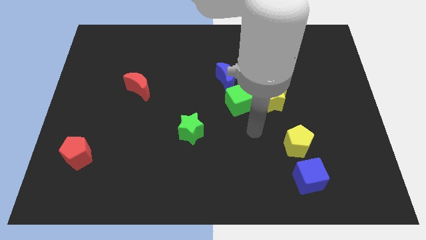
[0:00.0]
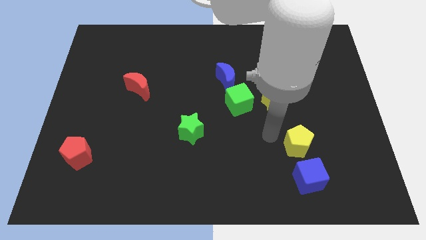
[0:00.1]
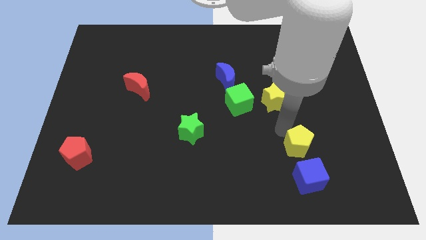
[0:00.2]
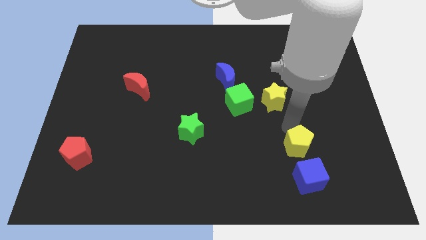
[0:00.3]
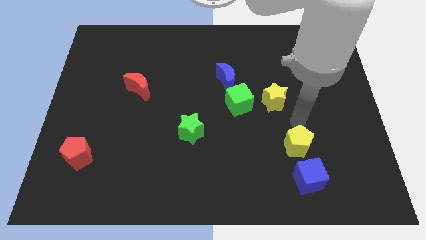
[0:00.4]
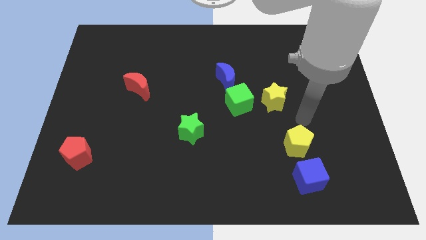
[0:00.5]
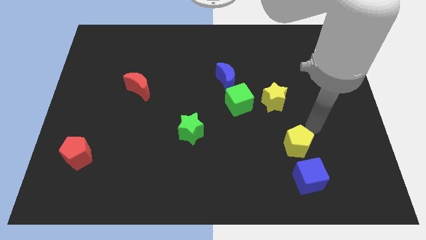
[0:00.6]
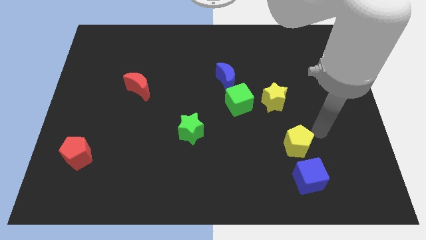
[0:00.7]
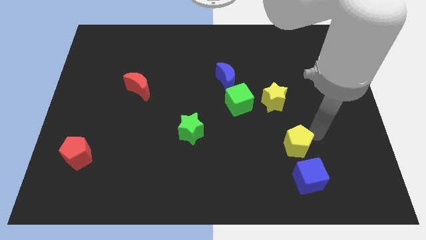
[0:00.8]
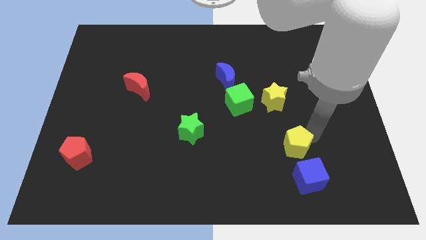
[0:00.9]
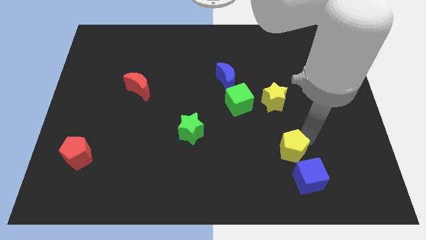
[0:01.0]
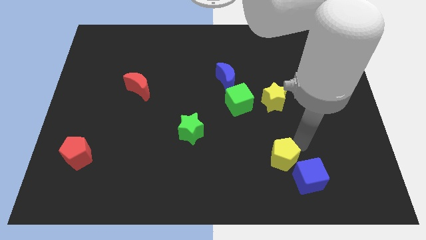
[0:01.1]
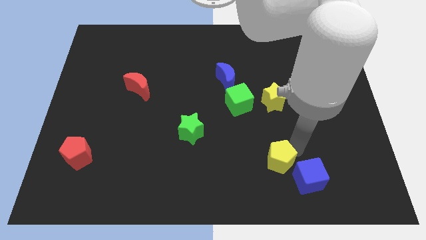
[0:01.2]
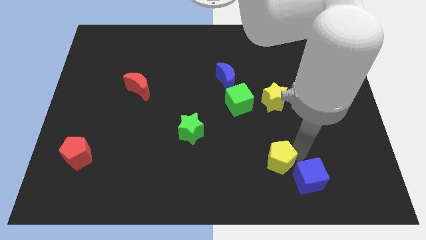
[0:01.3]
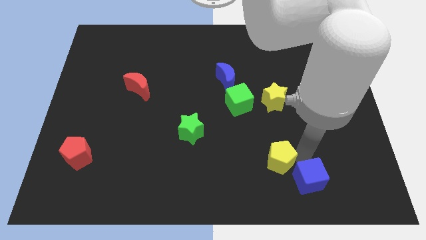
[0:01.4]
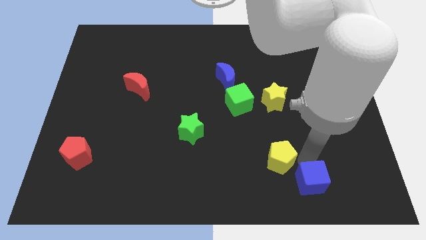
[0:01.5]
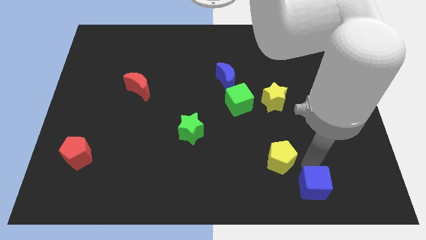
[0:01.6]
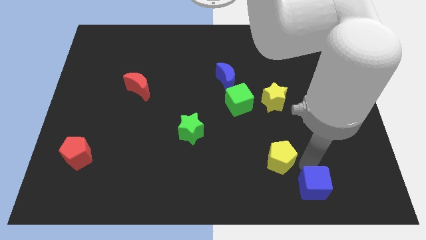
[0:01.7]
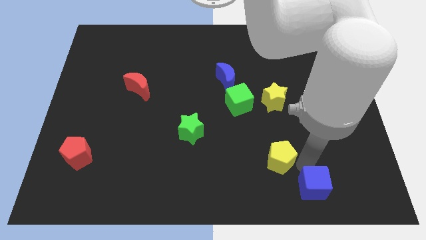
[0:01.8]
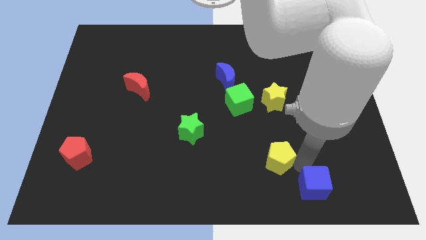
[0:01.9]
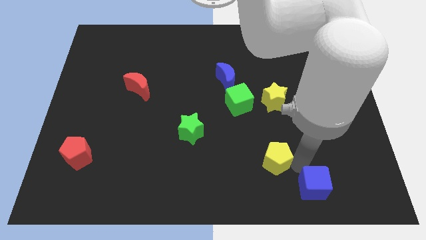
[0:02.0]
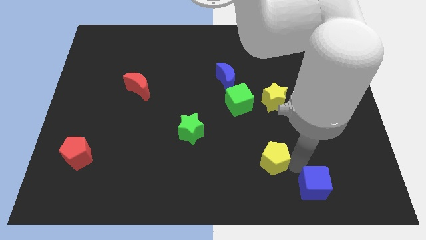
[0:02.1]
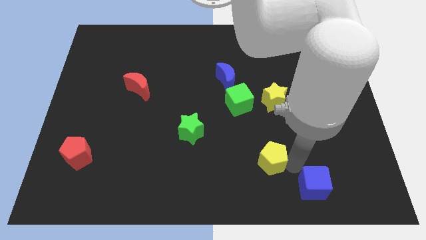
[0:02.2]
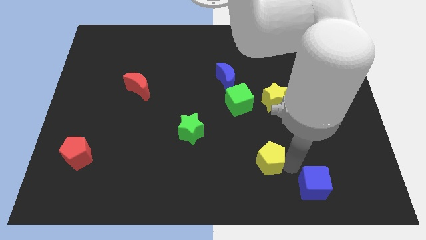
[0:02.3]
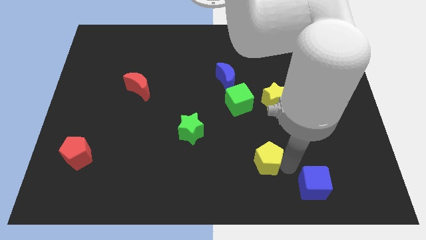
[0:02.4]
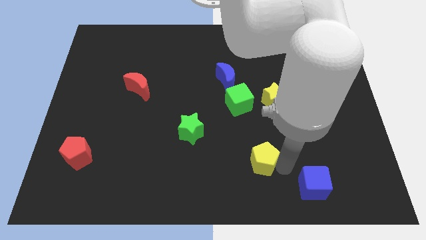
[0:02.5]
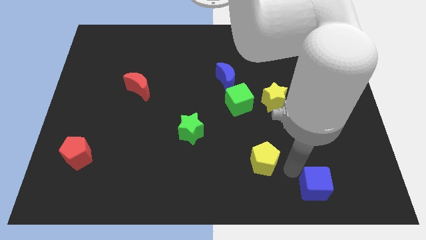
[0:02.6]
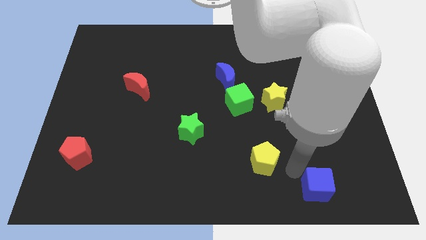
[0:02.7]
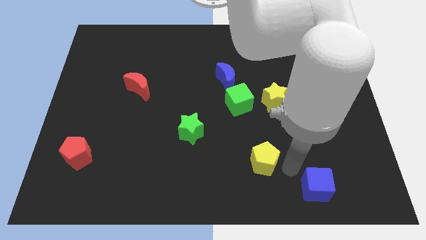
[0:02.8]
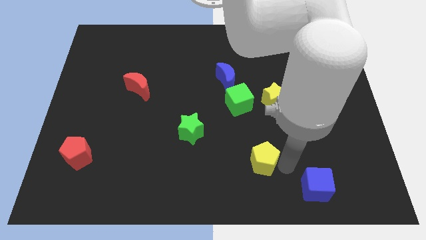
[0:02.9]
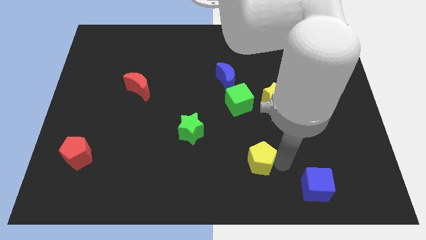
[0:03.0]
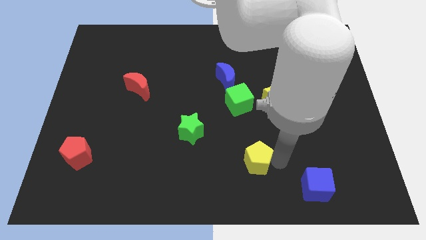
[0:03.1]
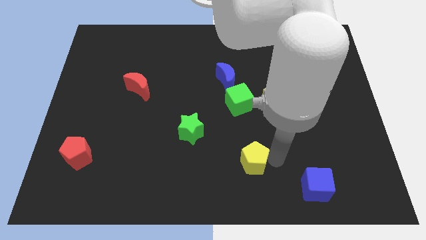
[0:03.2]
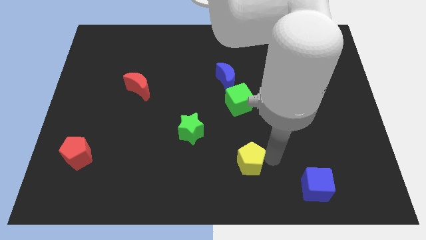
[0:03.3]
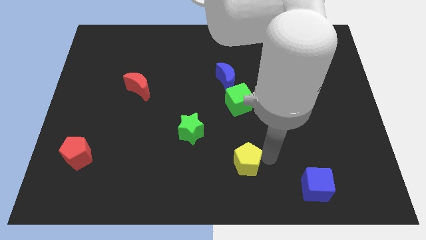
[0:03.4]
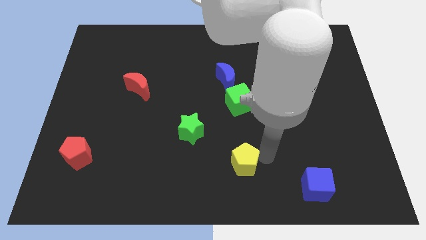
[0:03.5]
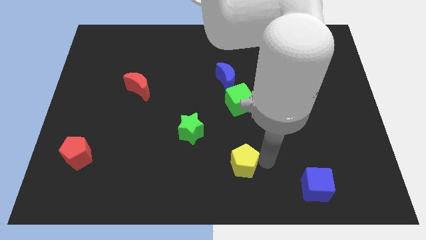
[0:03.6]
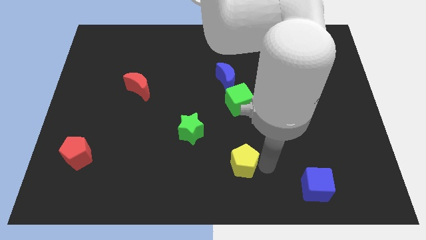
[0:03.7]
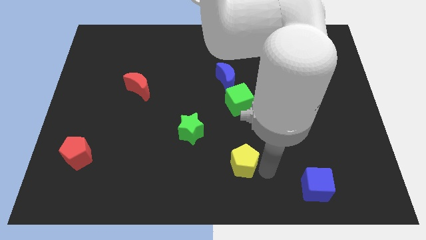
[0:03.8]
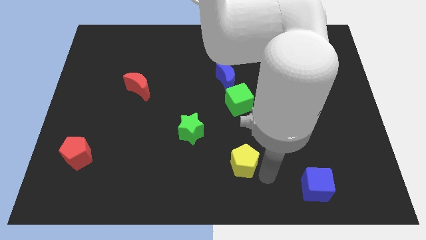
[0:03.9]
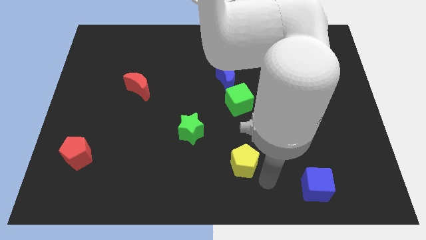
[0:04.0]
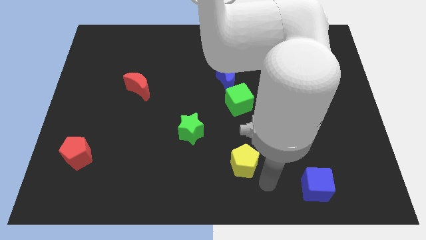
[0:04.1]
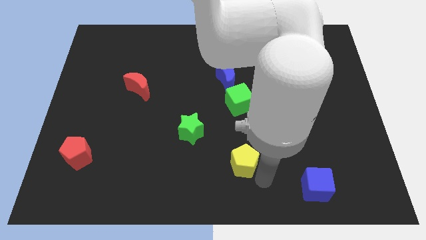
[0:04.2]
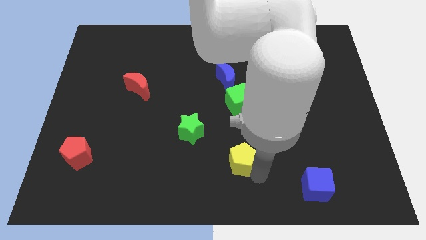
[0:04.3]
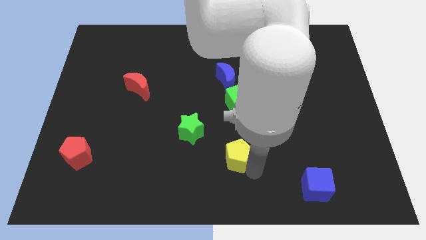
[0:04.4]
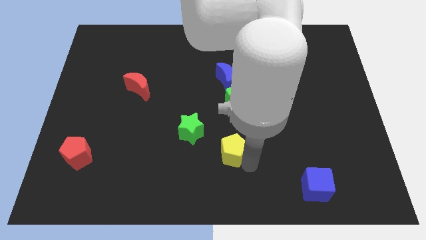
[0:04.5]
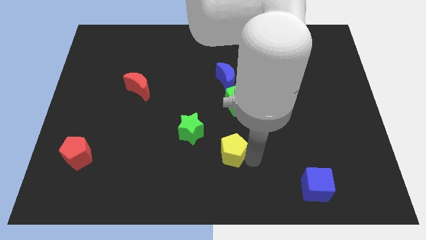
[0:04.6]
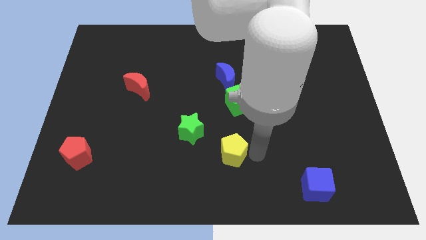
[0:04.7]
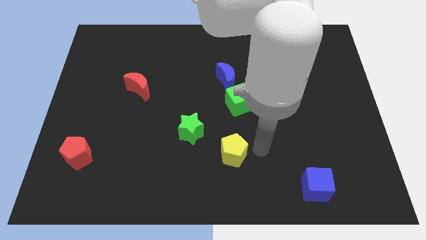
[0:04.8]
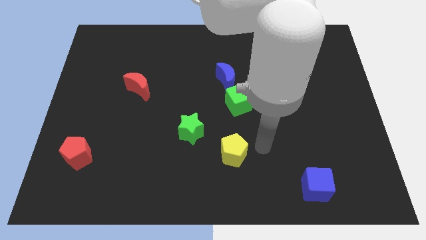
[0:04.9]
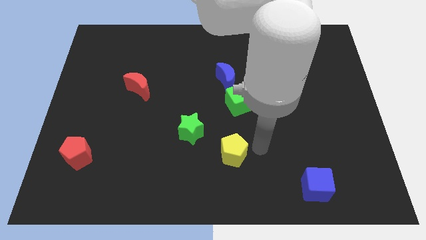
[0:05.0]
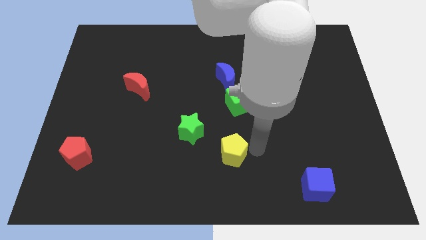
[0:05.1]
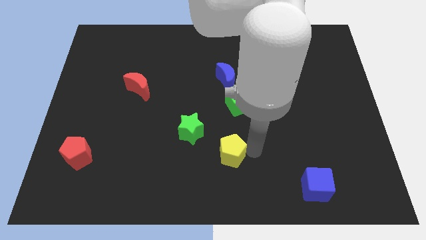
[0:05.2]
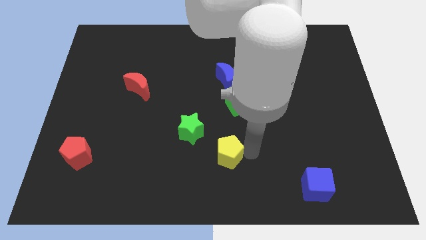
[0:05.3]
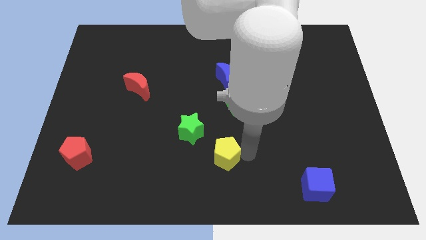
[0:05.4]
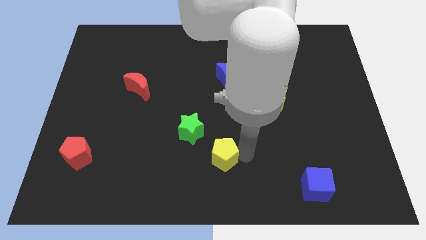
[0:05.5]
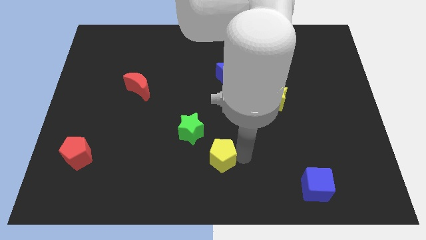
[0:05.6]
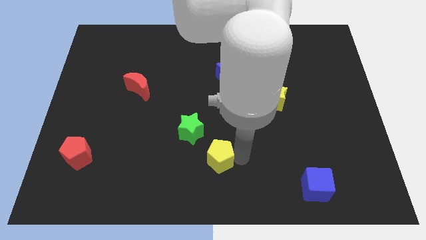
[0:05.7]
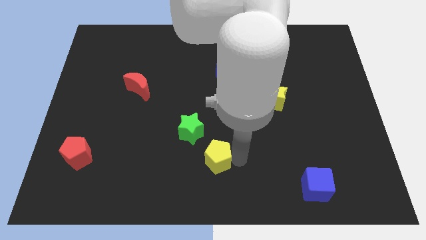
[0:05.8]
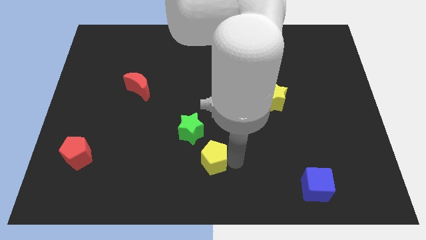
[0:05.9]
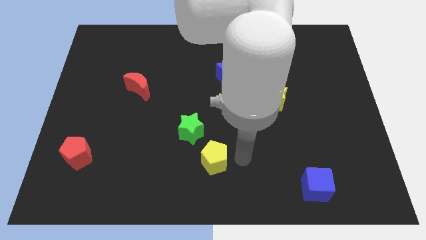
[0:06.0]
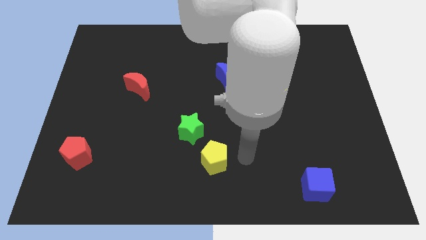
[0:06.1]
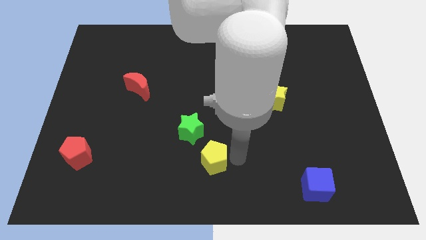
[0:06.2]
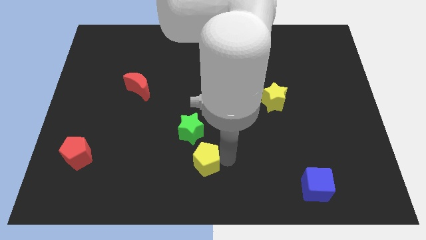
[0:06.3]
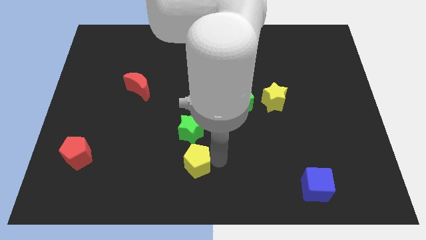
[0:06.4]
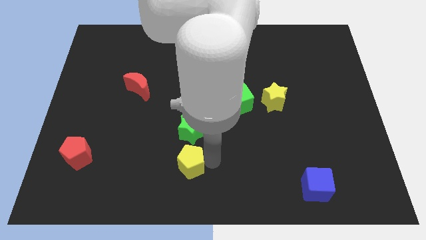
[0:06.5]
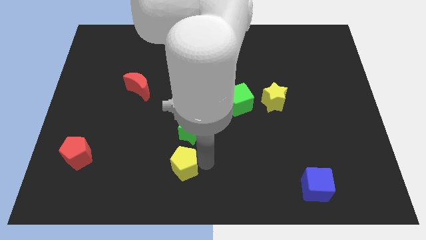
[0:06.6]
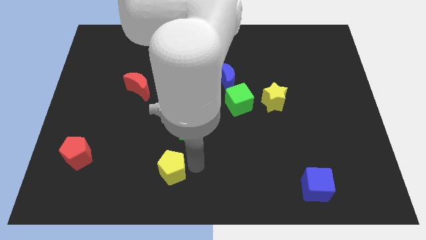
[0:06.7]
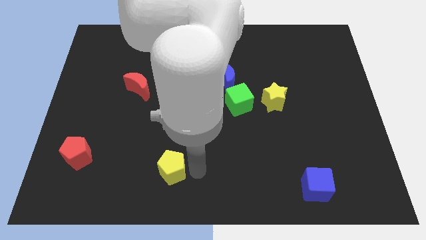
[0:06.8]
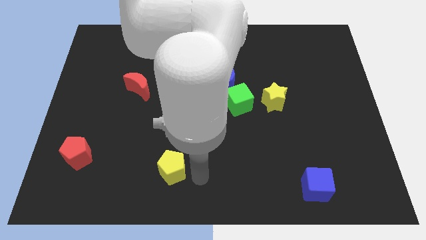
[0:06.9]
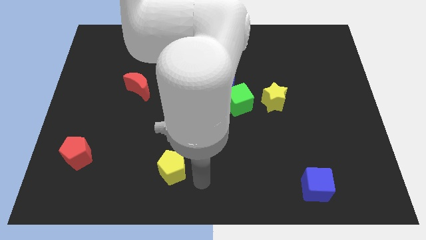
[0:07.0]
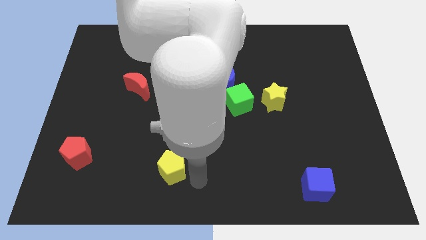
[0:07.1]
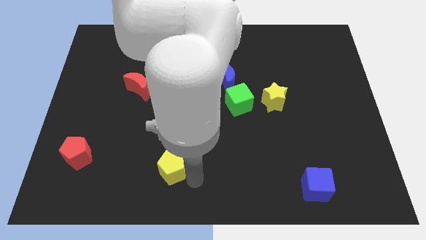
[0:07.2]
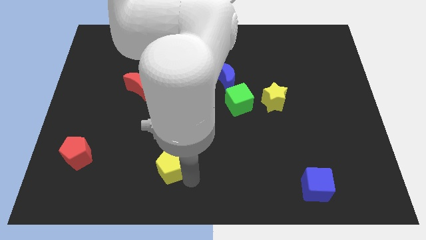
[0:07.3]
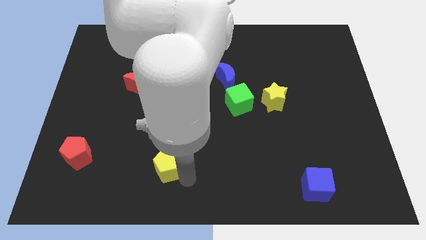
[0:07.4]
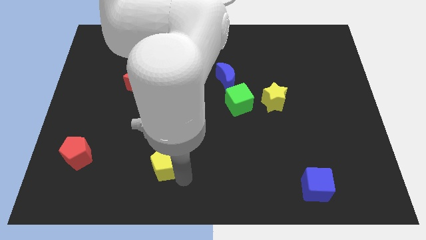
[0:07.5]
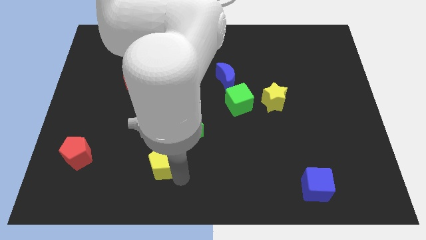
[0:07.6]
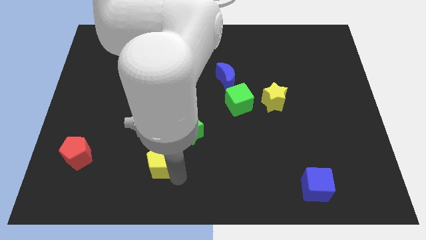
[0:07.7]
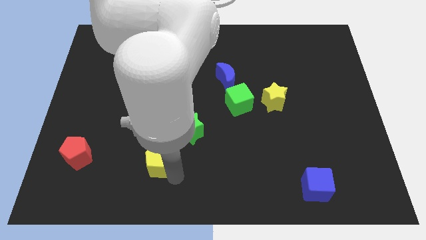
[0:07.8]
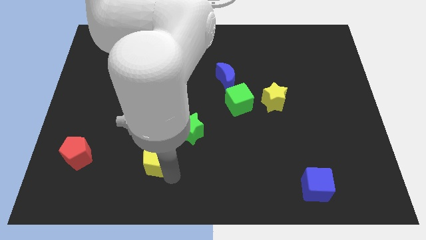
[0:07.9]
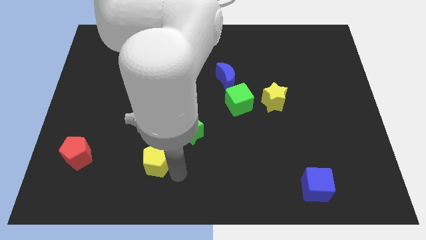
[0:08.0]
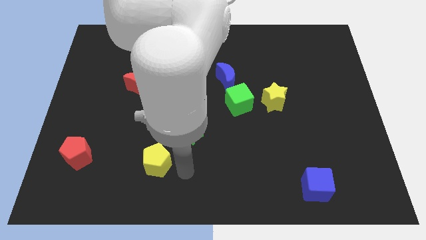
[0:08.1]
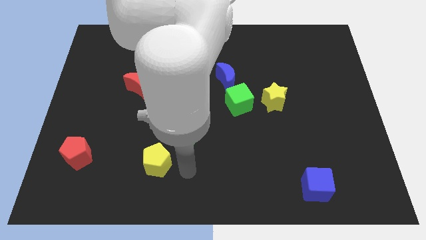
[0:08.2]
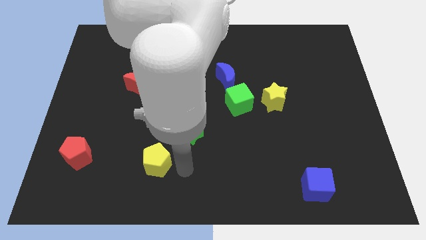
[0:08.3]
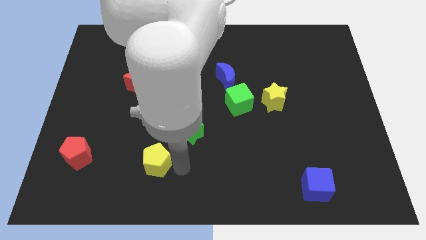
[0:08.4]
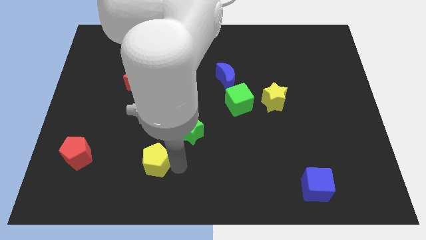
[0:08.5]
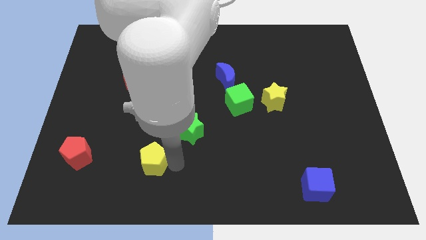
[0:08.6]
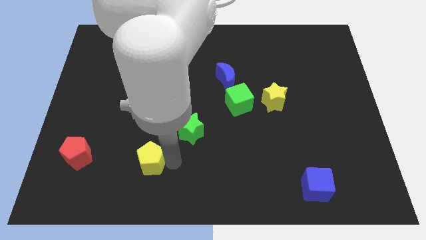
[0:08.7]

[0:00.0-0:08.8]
slide the yellow pentagon to the right side of the red pentagon
